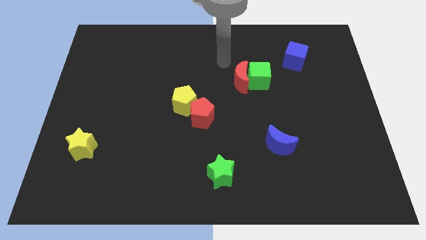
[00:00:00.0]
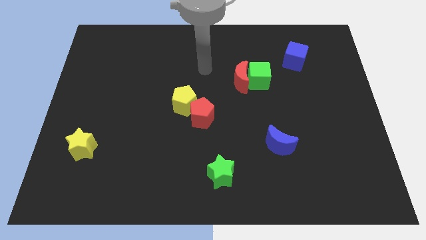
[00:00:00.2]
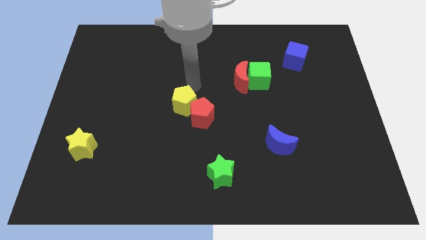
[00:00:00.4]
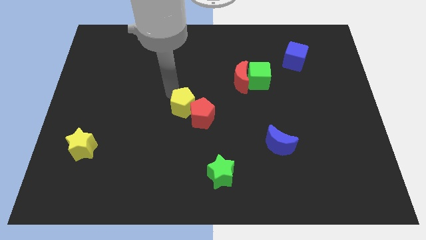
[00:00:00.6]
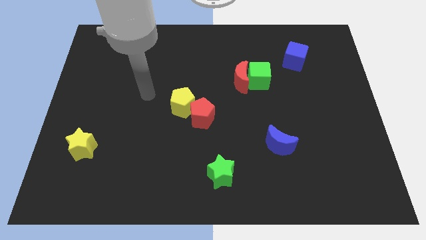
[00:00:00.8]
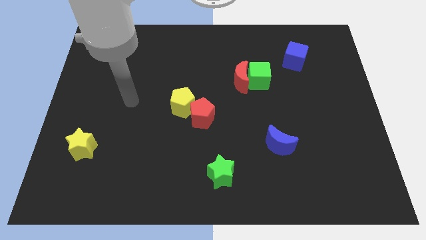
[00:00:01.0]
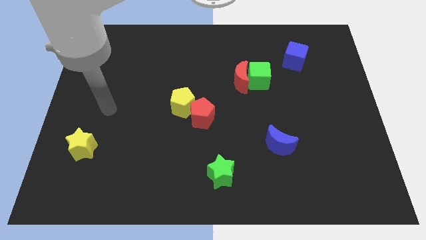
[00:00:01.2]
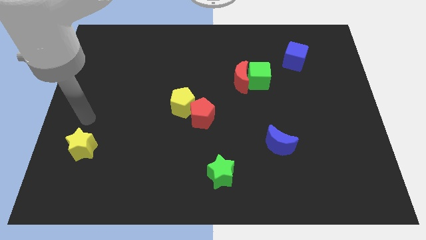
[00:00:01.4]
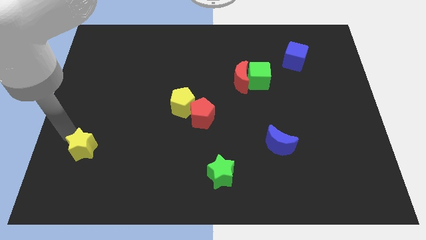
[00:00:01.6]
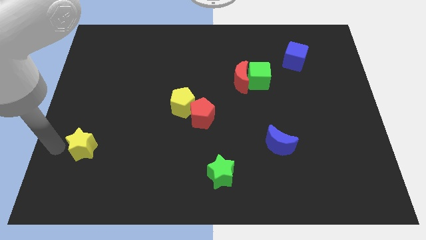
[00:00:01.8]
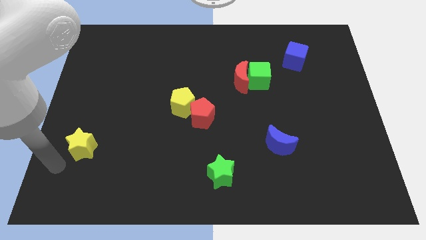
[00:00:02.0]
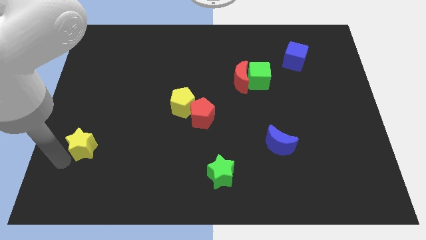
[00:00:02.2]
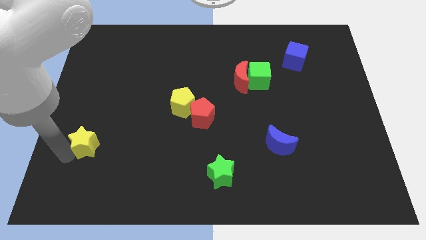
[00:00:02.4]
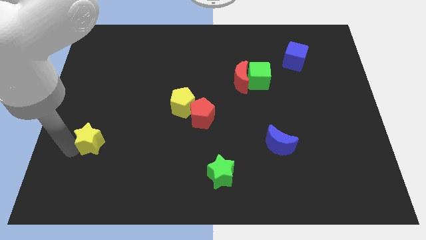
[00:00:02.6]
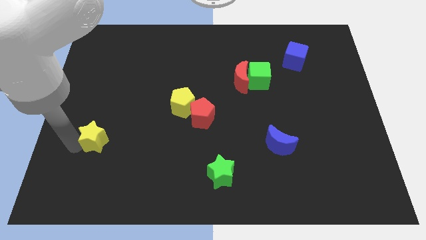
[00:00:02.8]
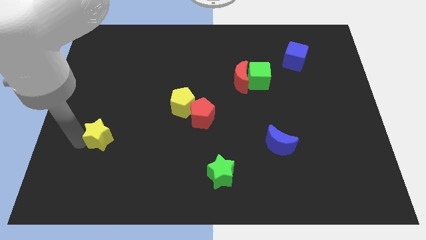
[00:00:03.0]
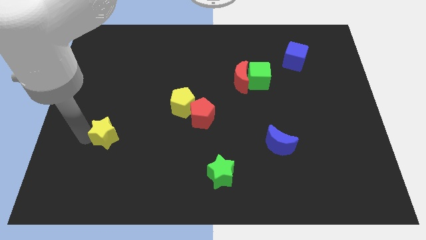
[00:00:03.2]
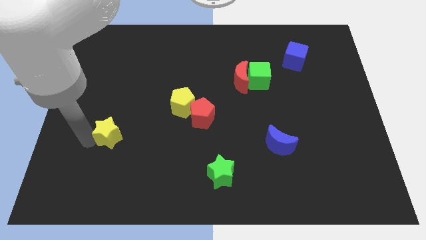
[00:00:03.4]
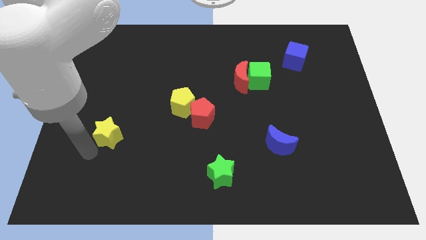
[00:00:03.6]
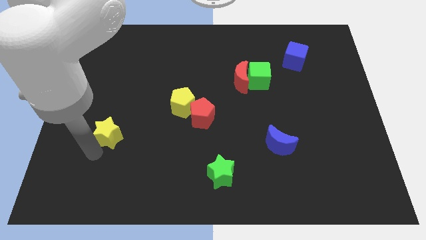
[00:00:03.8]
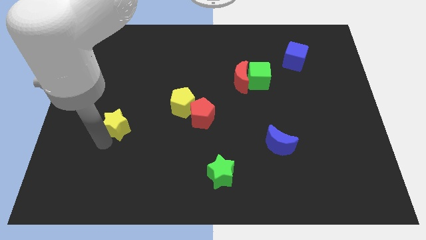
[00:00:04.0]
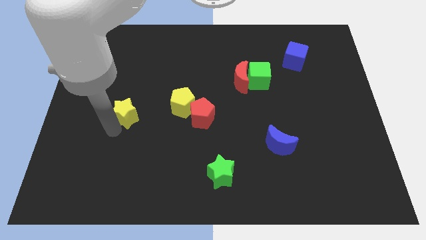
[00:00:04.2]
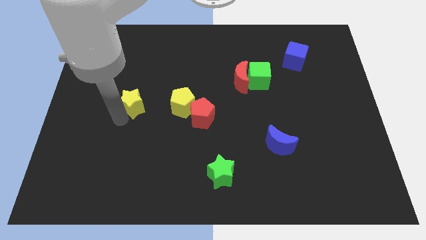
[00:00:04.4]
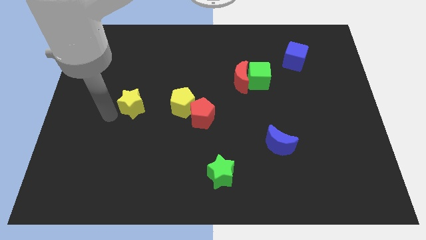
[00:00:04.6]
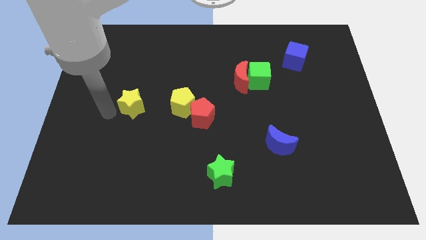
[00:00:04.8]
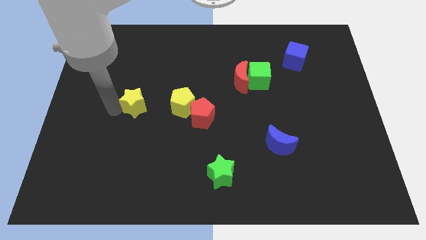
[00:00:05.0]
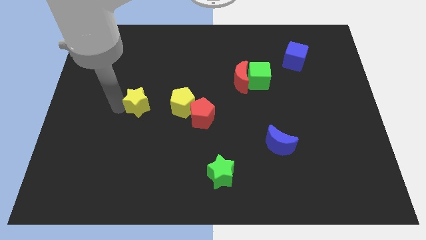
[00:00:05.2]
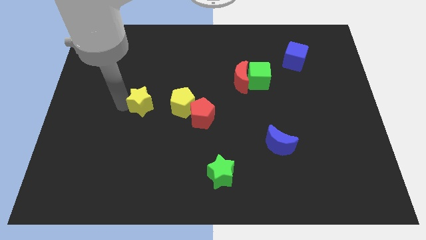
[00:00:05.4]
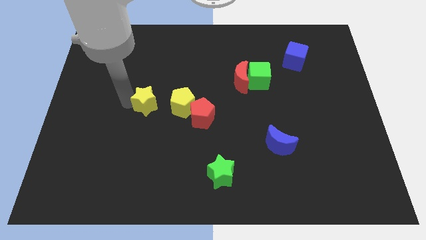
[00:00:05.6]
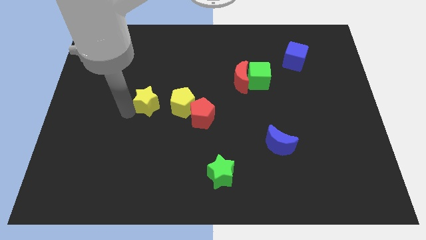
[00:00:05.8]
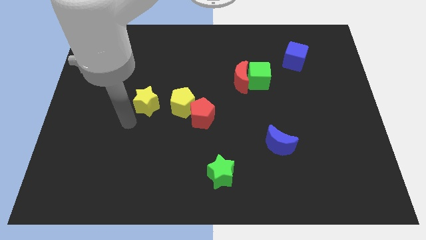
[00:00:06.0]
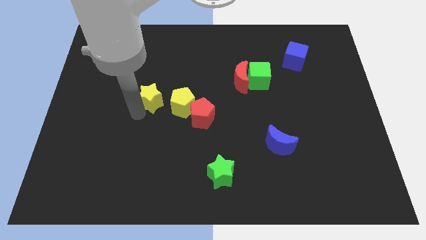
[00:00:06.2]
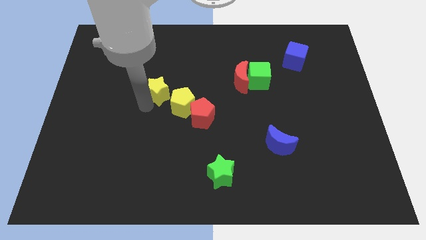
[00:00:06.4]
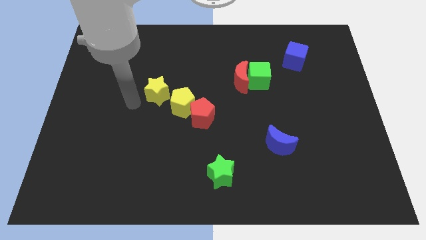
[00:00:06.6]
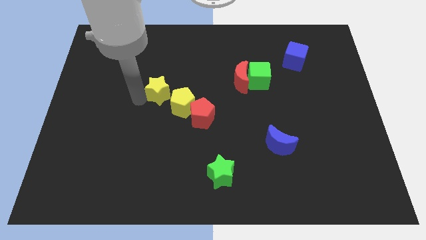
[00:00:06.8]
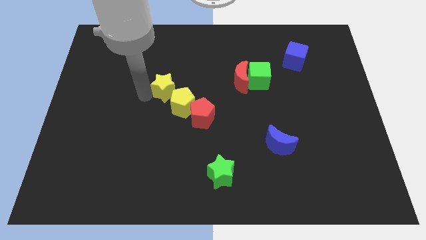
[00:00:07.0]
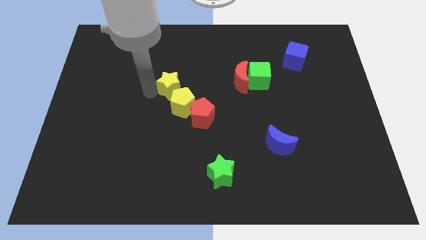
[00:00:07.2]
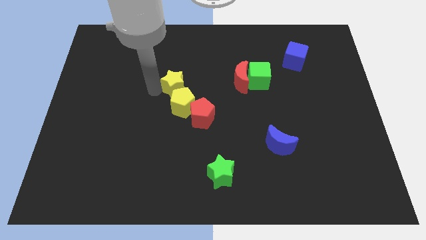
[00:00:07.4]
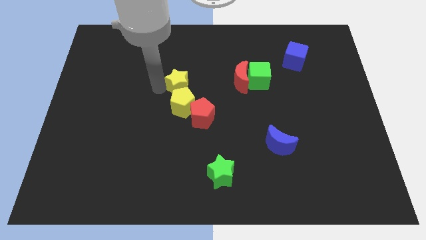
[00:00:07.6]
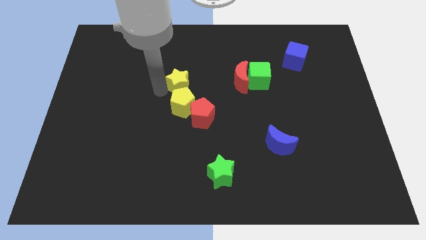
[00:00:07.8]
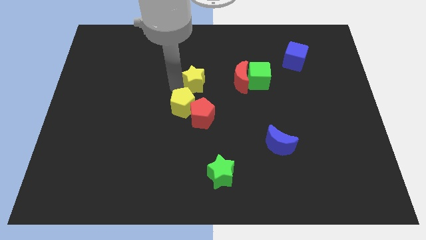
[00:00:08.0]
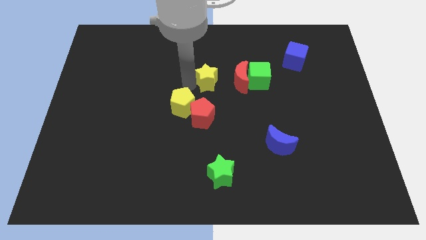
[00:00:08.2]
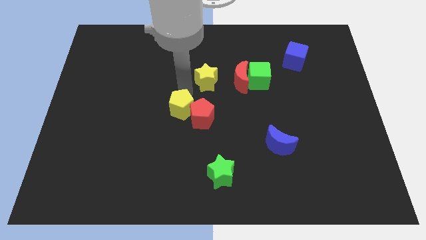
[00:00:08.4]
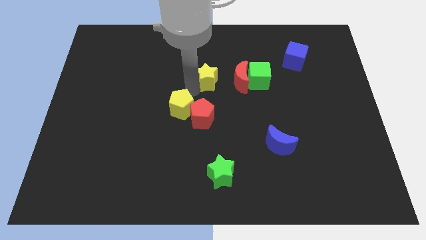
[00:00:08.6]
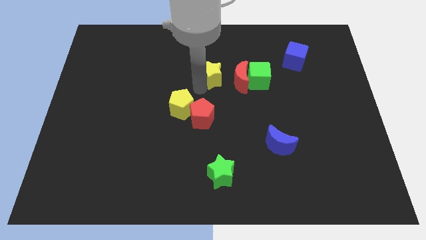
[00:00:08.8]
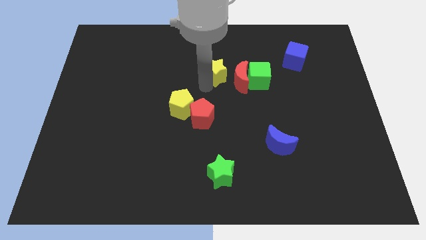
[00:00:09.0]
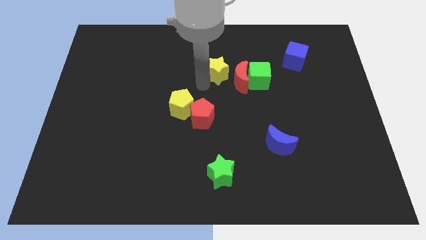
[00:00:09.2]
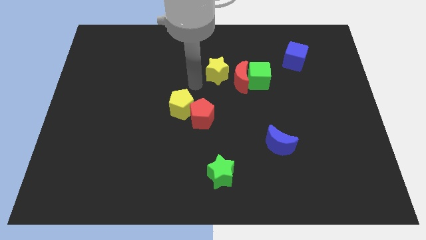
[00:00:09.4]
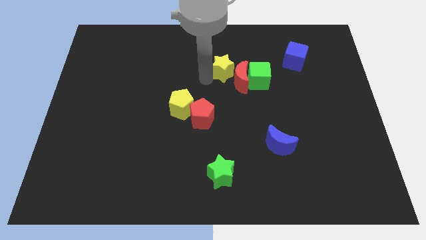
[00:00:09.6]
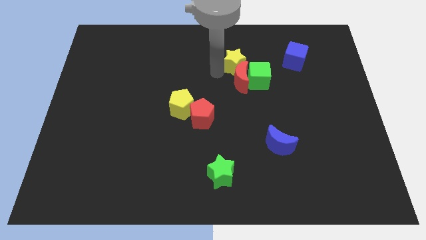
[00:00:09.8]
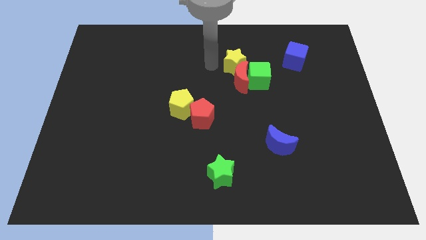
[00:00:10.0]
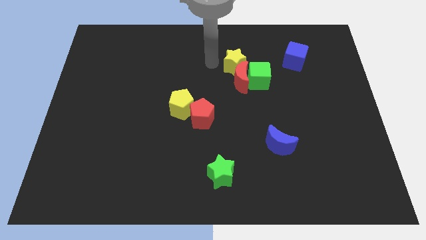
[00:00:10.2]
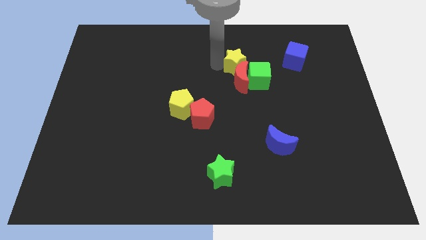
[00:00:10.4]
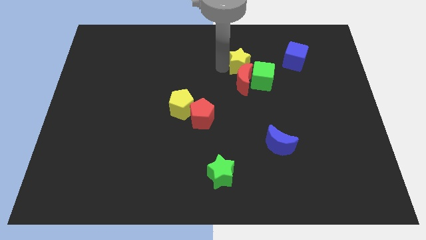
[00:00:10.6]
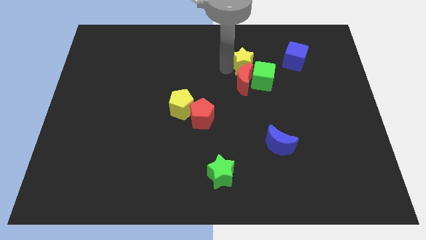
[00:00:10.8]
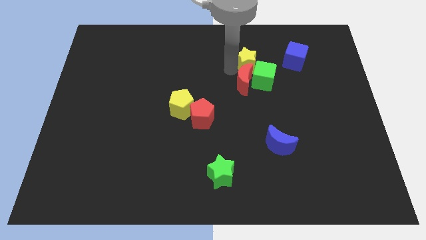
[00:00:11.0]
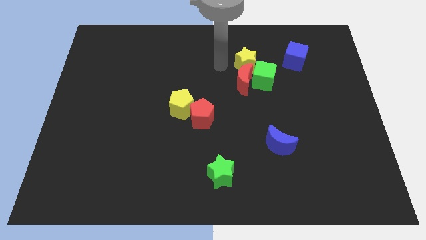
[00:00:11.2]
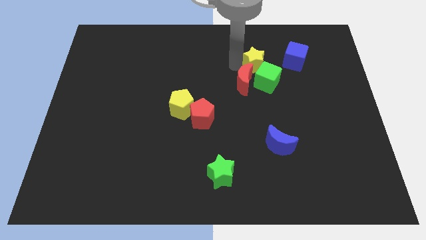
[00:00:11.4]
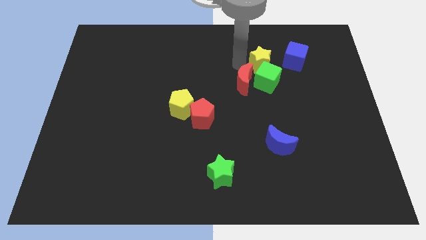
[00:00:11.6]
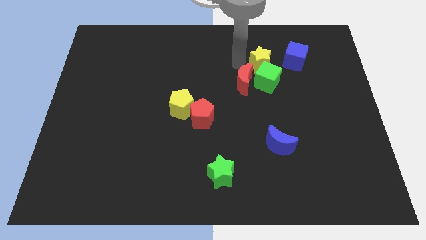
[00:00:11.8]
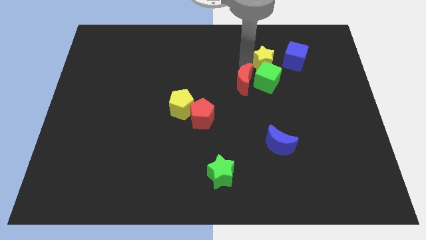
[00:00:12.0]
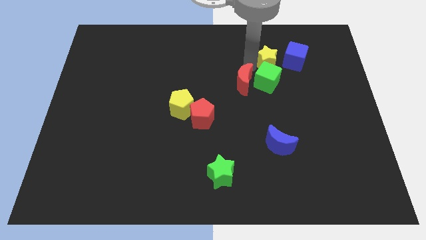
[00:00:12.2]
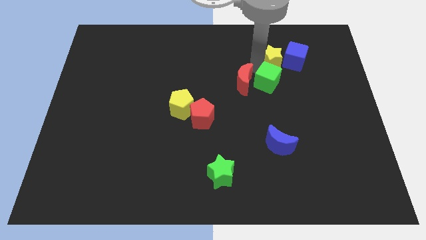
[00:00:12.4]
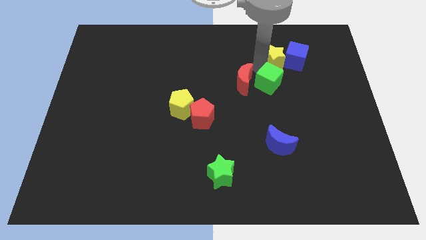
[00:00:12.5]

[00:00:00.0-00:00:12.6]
slide the yellow star towards the blue cube

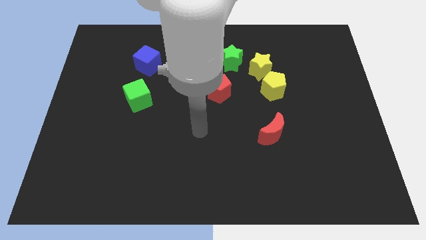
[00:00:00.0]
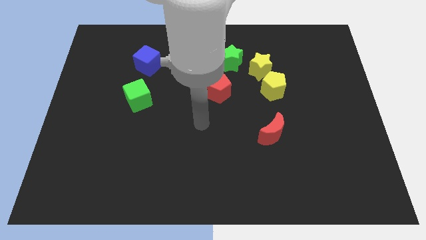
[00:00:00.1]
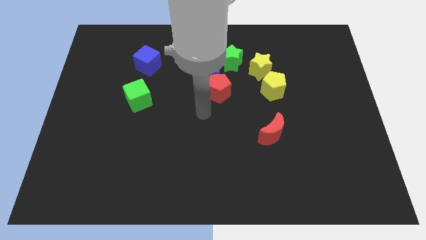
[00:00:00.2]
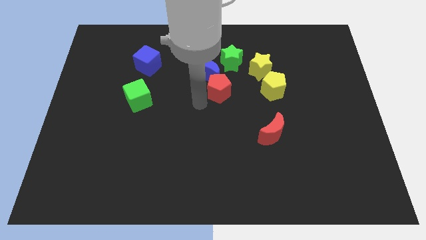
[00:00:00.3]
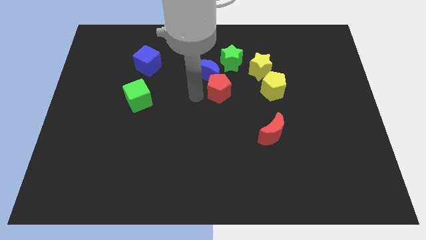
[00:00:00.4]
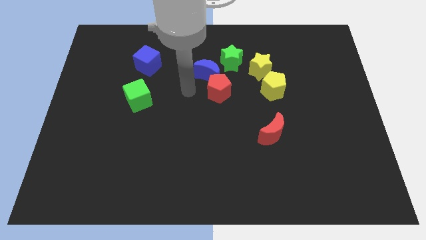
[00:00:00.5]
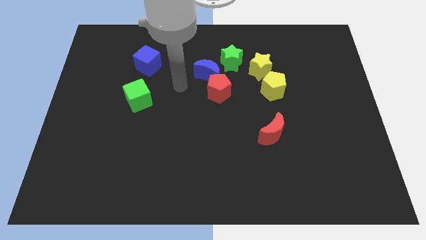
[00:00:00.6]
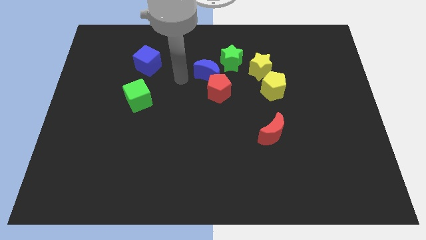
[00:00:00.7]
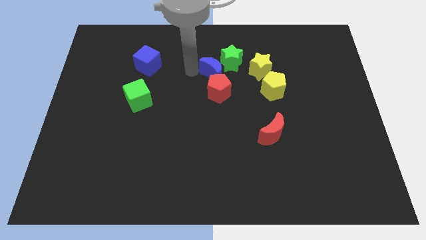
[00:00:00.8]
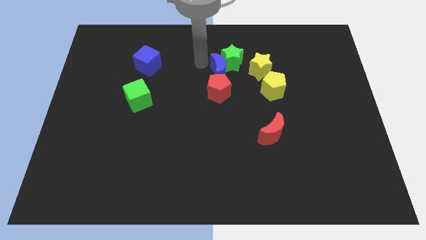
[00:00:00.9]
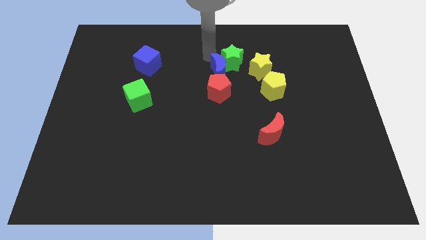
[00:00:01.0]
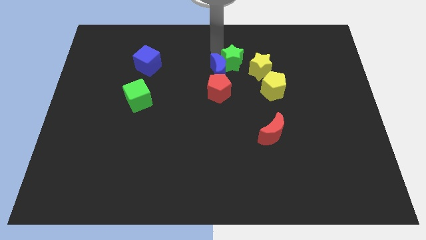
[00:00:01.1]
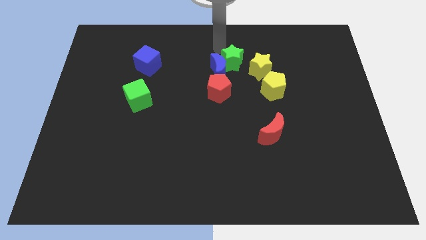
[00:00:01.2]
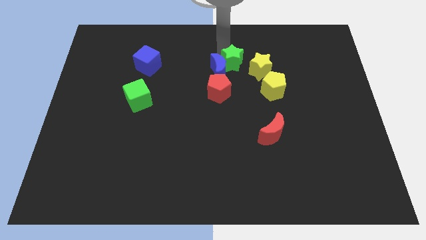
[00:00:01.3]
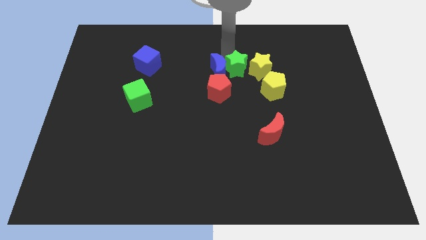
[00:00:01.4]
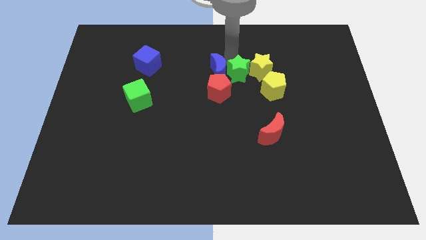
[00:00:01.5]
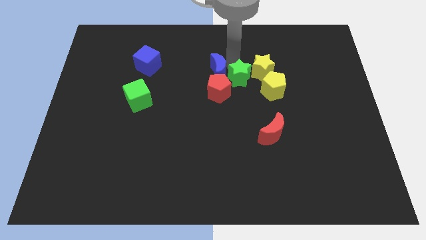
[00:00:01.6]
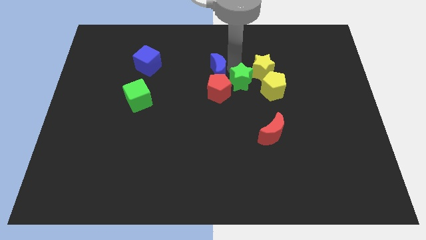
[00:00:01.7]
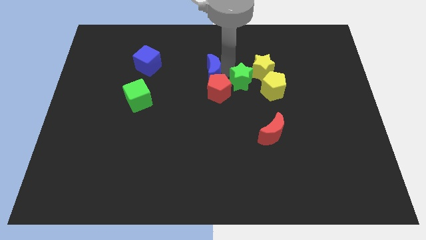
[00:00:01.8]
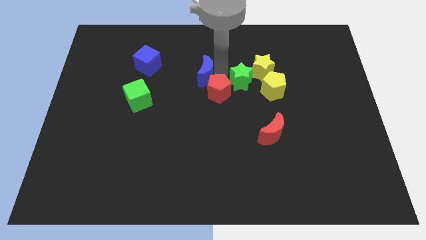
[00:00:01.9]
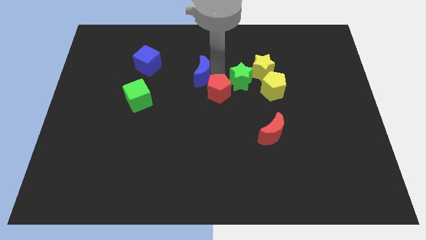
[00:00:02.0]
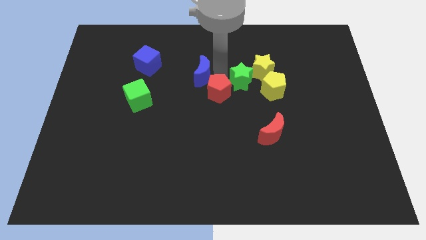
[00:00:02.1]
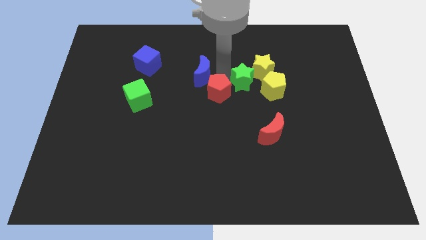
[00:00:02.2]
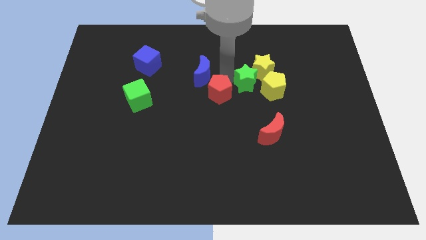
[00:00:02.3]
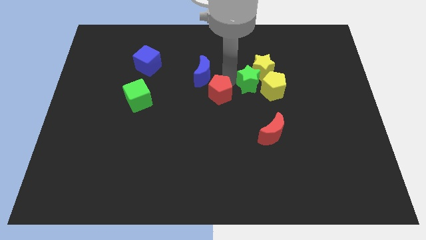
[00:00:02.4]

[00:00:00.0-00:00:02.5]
slide the green star to the yellow pentagon
